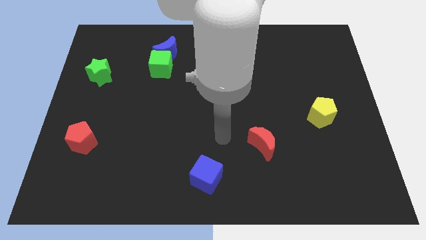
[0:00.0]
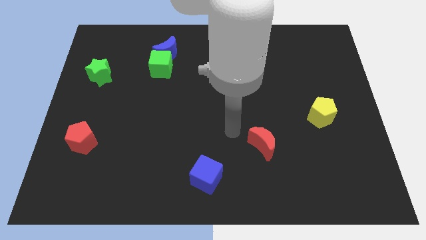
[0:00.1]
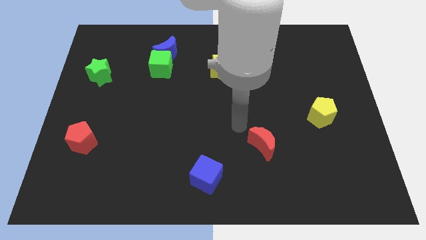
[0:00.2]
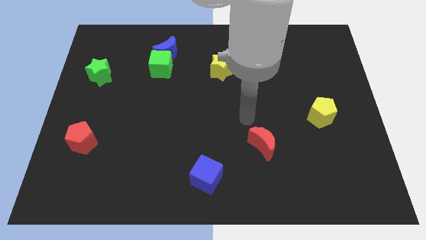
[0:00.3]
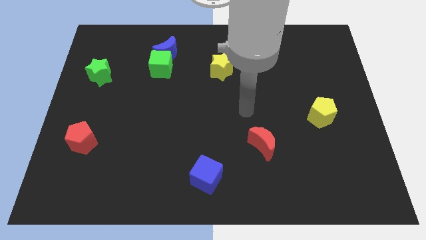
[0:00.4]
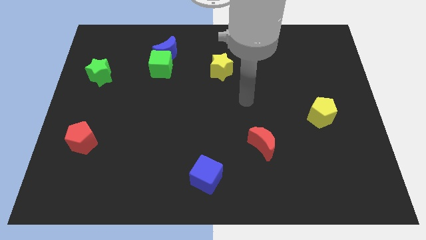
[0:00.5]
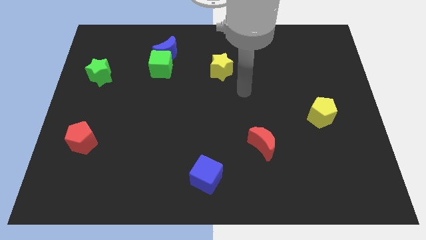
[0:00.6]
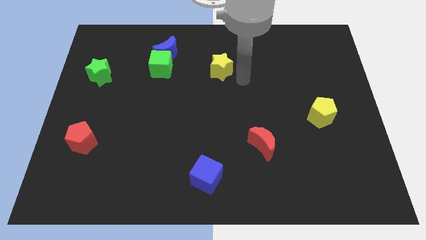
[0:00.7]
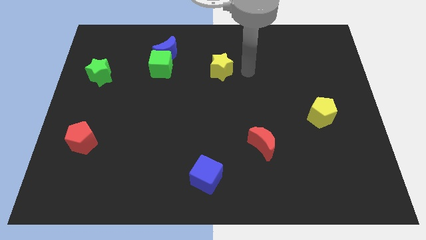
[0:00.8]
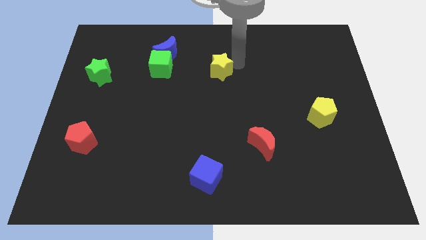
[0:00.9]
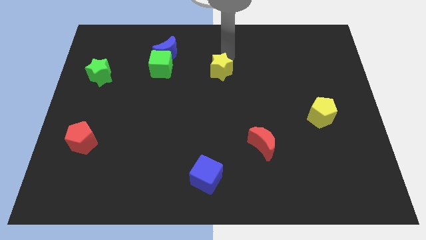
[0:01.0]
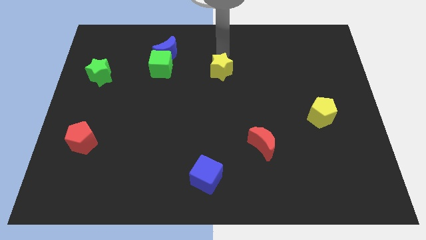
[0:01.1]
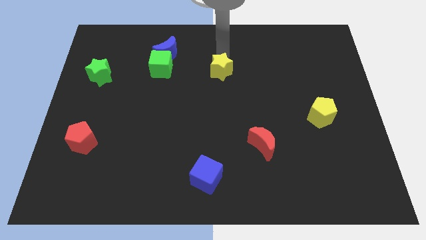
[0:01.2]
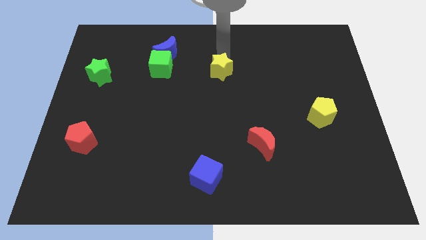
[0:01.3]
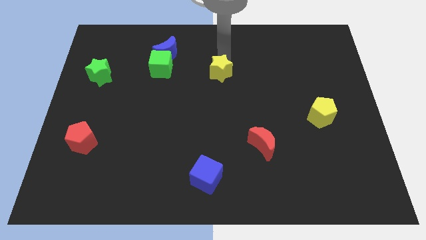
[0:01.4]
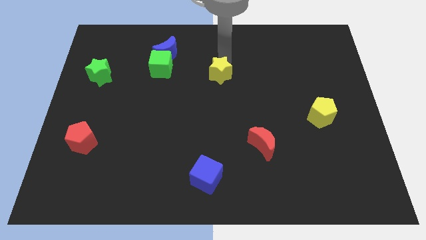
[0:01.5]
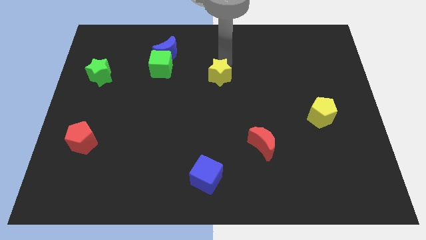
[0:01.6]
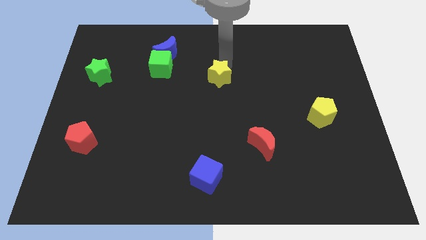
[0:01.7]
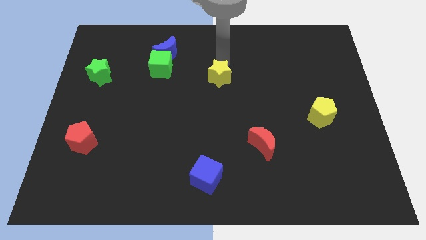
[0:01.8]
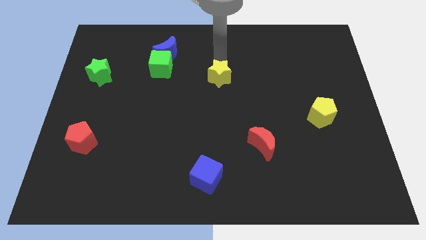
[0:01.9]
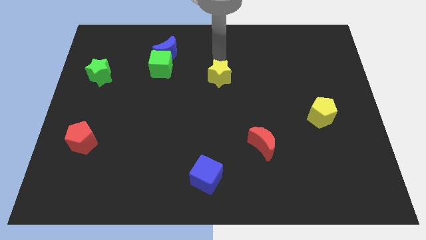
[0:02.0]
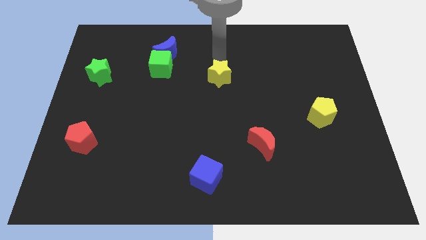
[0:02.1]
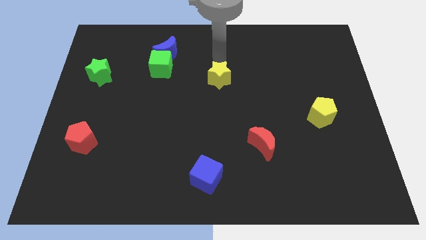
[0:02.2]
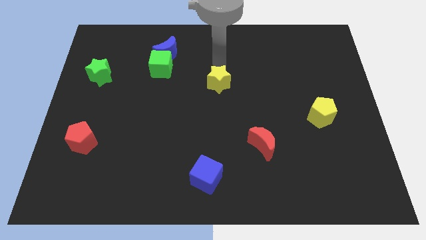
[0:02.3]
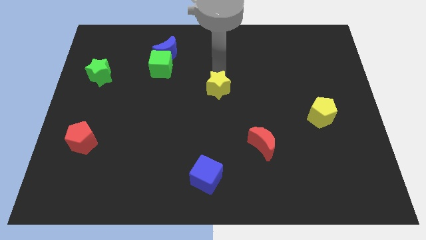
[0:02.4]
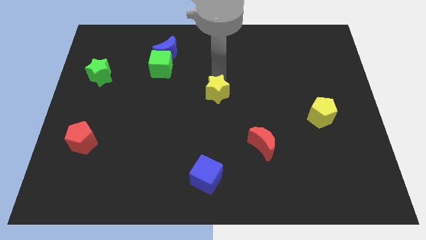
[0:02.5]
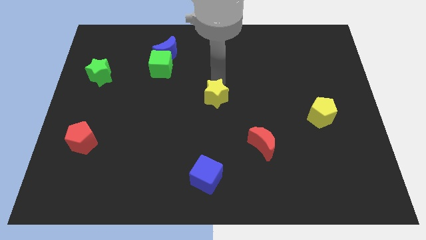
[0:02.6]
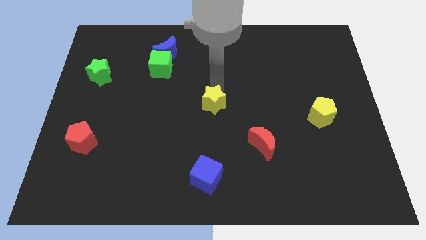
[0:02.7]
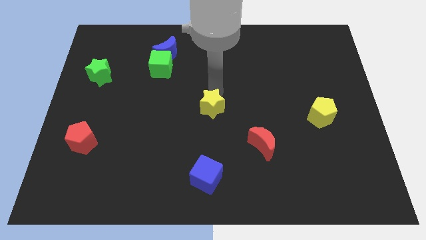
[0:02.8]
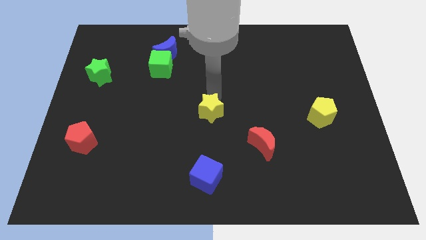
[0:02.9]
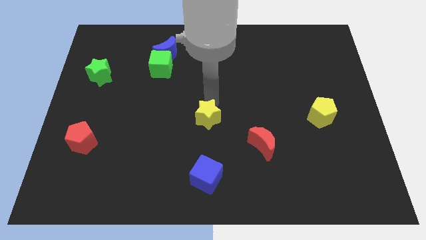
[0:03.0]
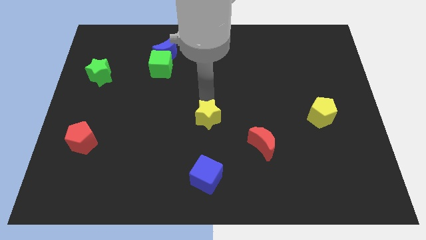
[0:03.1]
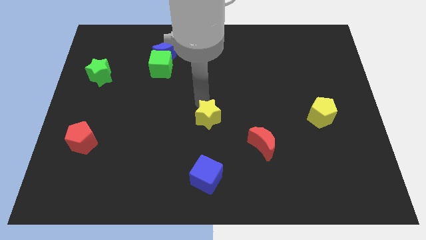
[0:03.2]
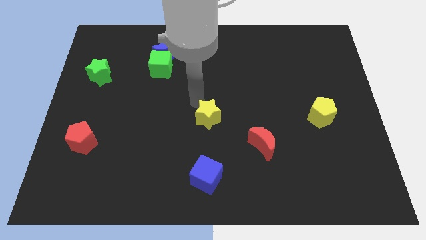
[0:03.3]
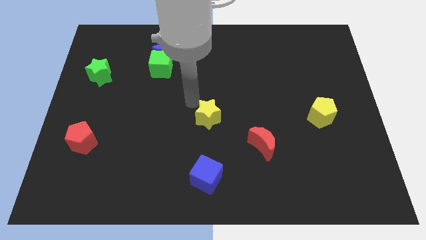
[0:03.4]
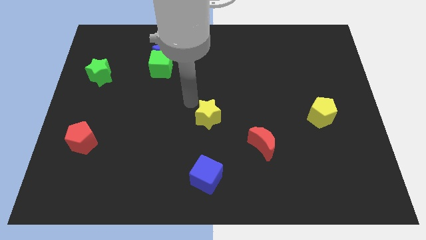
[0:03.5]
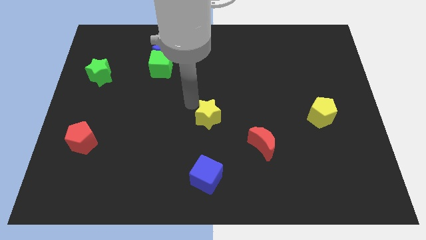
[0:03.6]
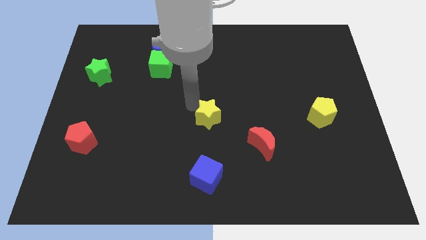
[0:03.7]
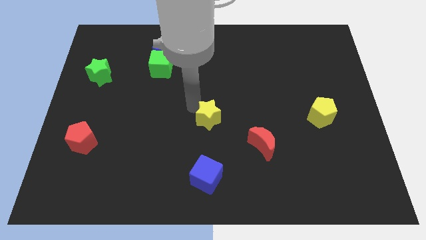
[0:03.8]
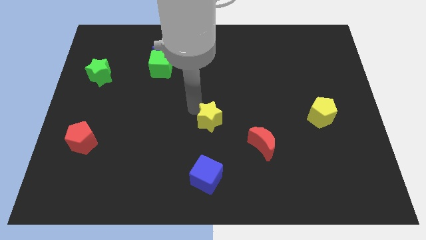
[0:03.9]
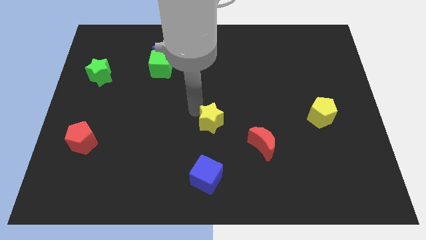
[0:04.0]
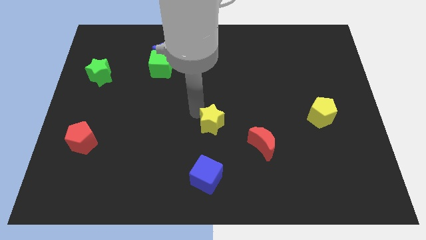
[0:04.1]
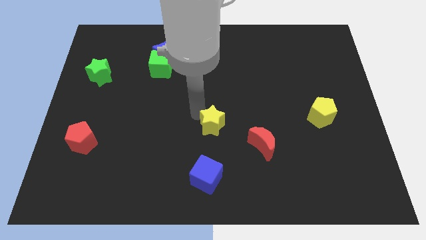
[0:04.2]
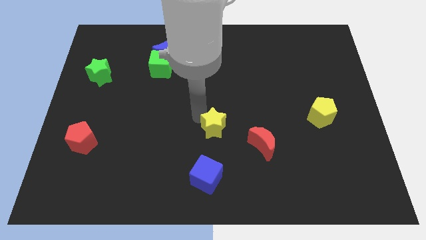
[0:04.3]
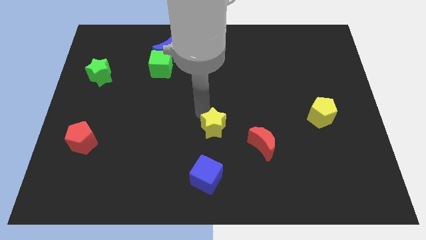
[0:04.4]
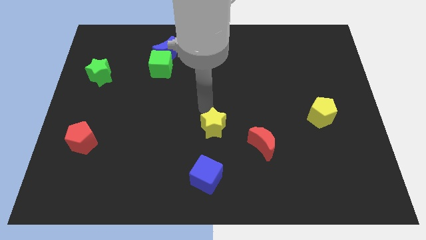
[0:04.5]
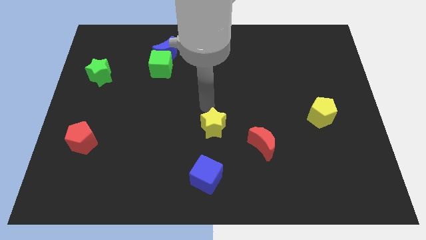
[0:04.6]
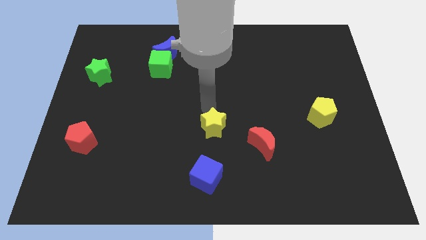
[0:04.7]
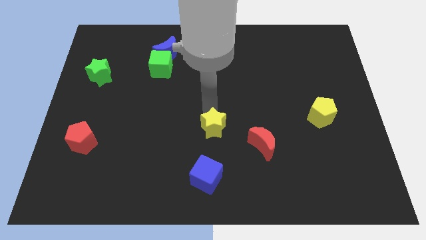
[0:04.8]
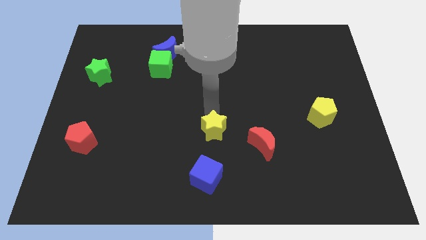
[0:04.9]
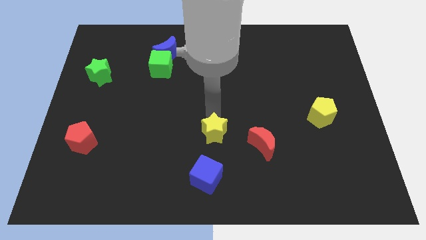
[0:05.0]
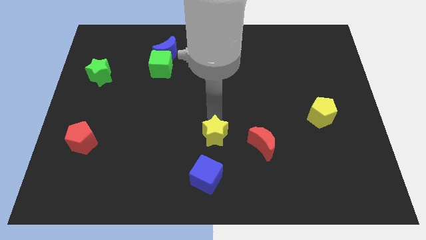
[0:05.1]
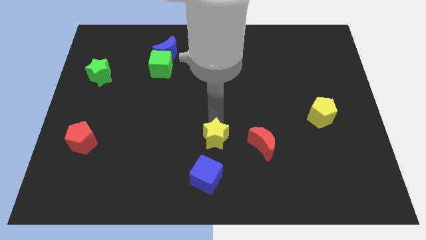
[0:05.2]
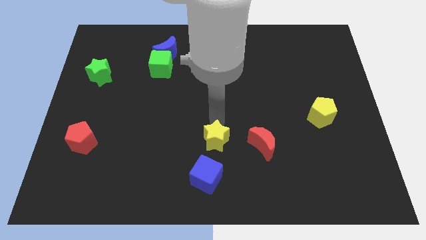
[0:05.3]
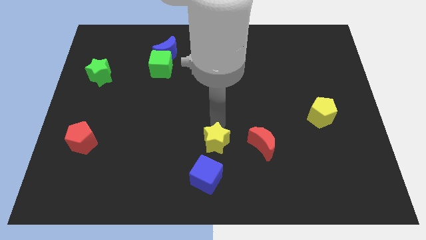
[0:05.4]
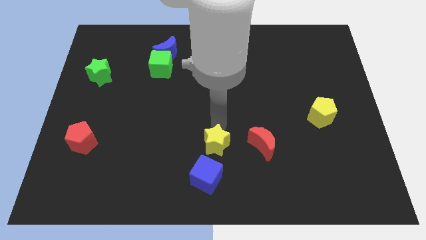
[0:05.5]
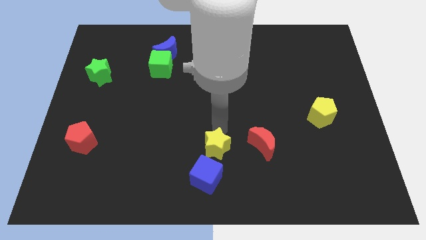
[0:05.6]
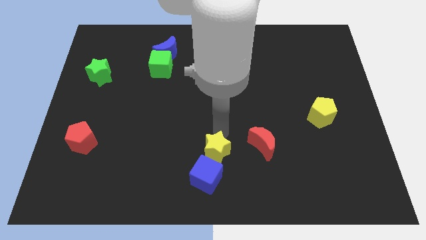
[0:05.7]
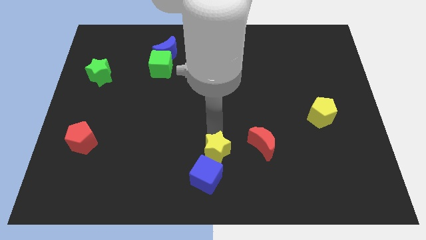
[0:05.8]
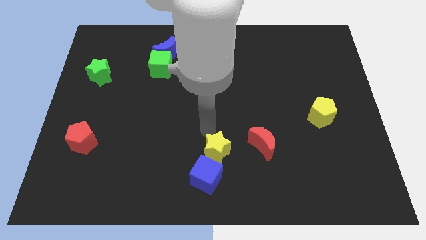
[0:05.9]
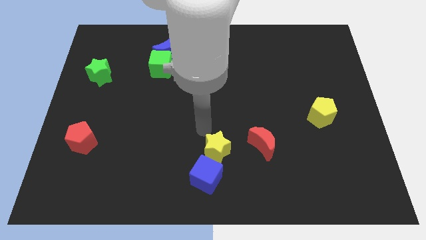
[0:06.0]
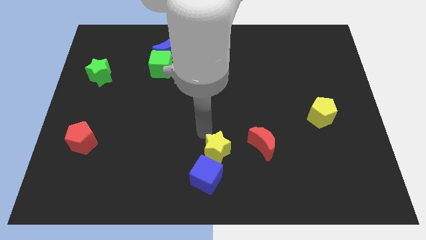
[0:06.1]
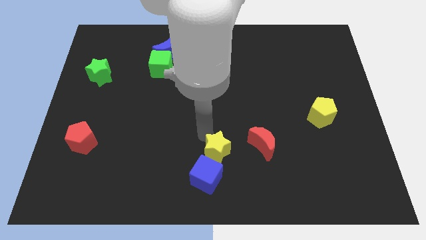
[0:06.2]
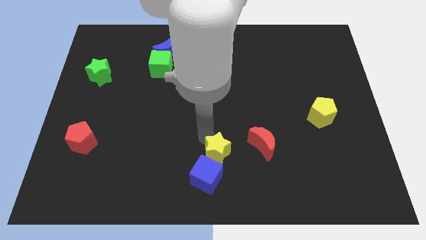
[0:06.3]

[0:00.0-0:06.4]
push the yellow star to the bottom side

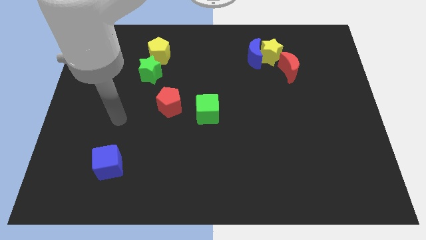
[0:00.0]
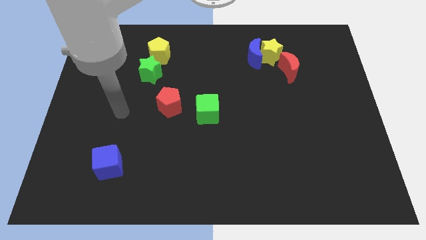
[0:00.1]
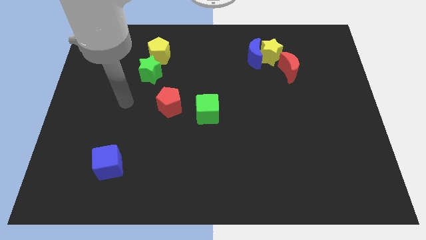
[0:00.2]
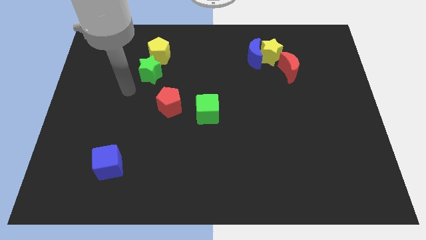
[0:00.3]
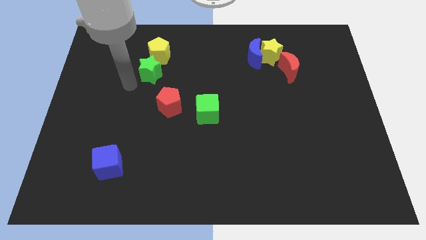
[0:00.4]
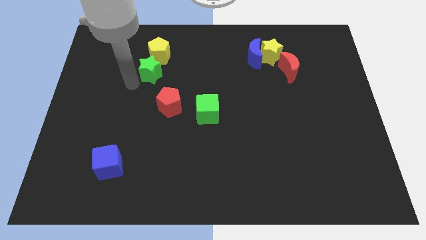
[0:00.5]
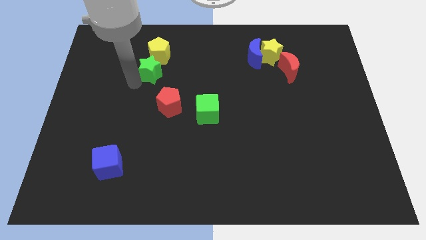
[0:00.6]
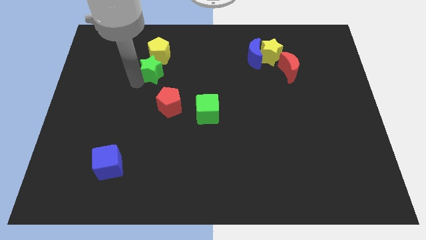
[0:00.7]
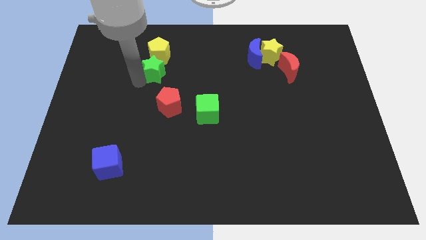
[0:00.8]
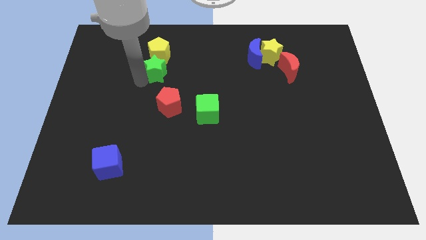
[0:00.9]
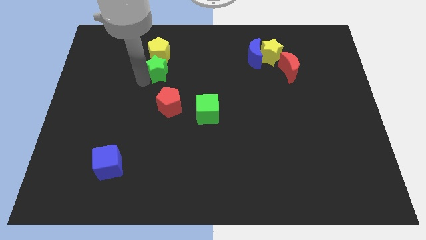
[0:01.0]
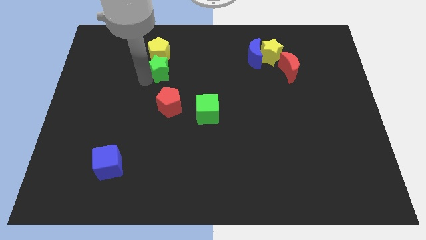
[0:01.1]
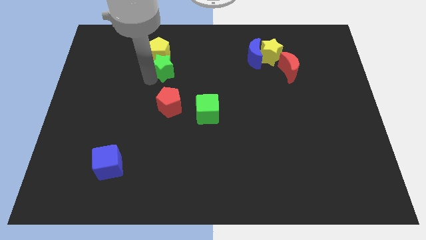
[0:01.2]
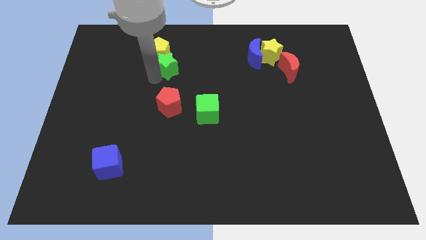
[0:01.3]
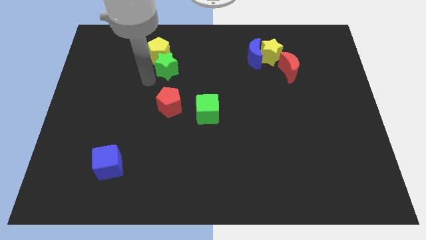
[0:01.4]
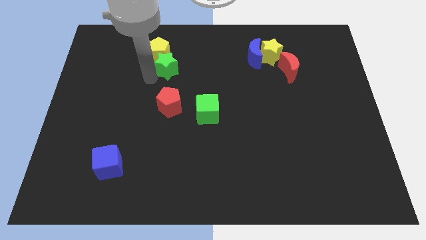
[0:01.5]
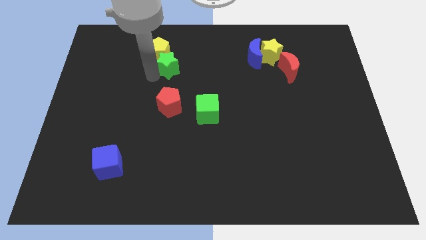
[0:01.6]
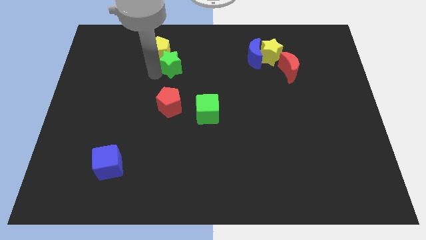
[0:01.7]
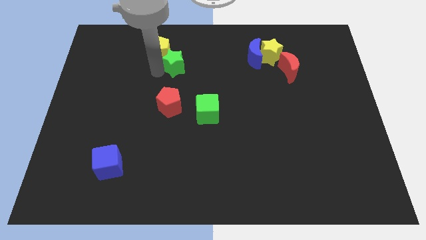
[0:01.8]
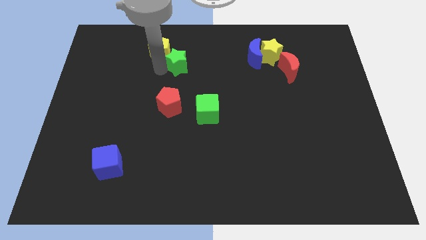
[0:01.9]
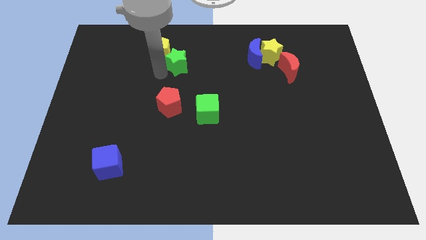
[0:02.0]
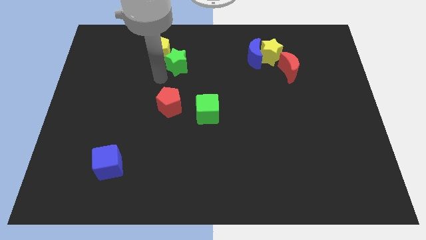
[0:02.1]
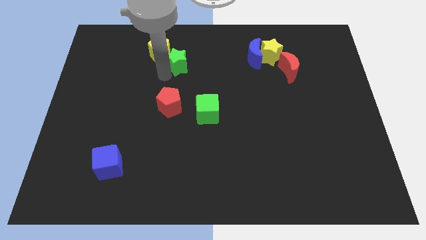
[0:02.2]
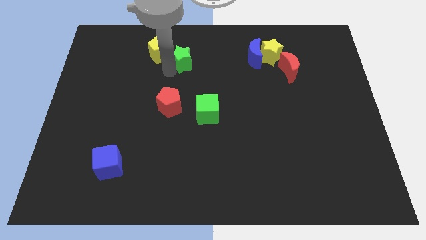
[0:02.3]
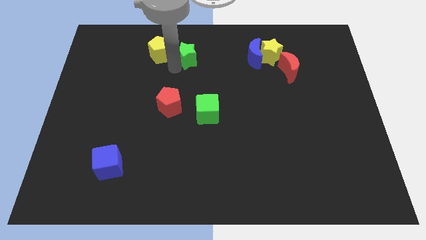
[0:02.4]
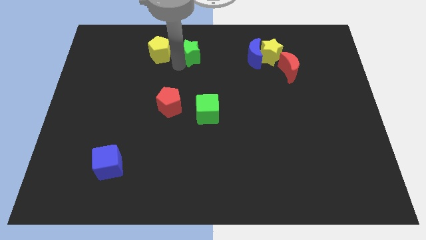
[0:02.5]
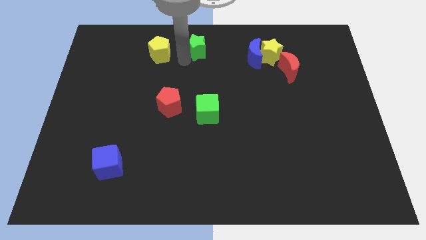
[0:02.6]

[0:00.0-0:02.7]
push the green star to the top side
